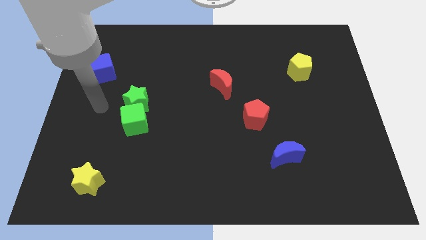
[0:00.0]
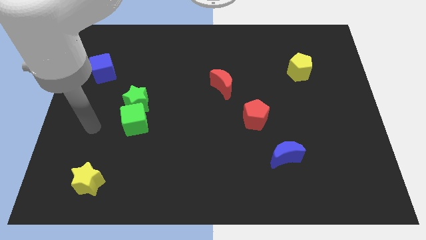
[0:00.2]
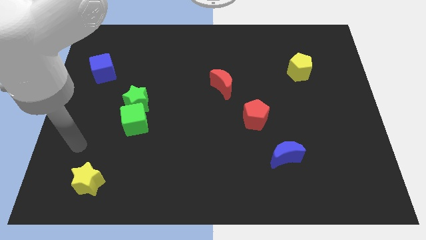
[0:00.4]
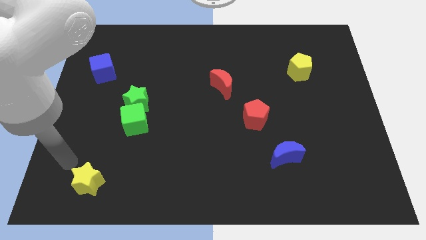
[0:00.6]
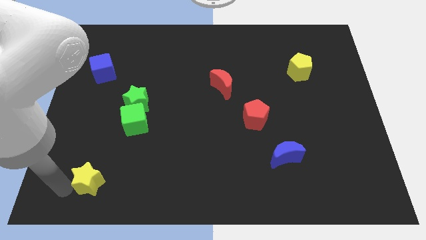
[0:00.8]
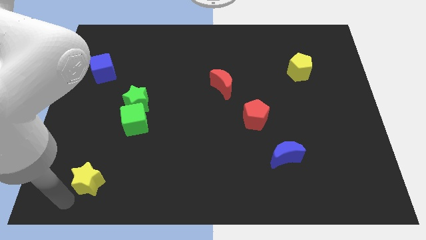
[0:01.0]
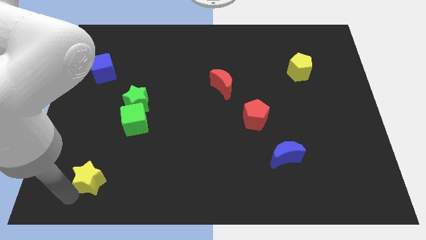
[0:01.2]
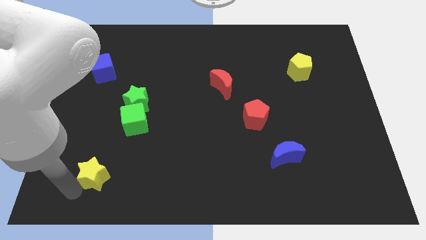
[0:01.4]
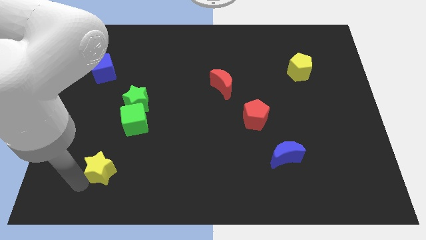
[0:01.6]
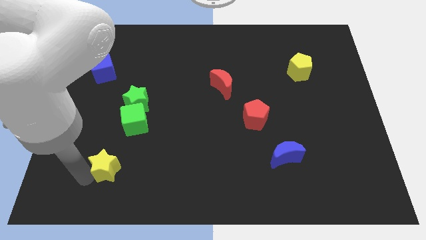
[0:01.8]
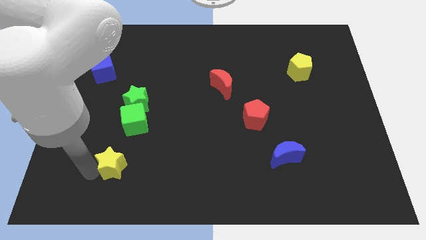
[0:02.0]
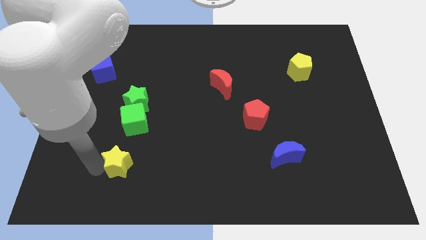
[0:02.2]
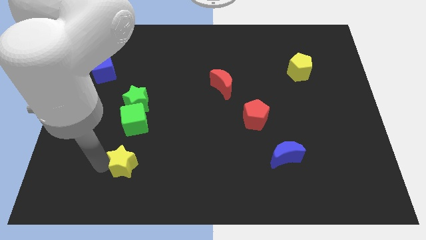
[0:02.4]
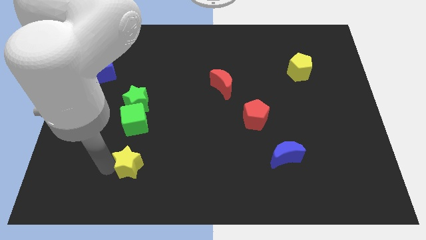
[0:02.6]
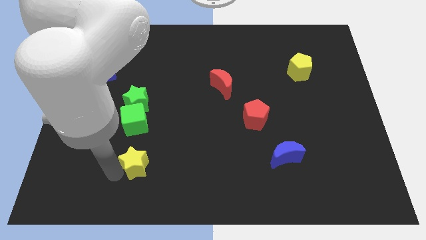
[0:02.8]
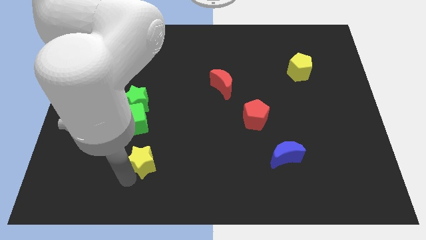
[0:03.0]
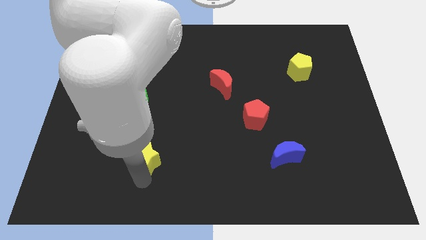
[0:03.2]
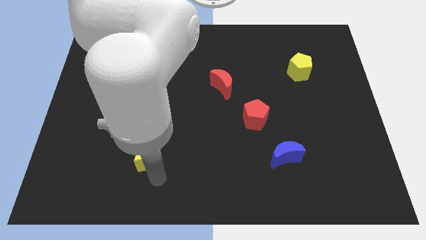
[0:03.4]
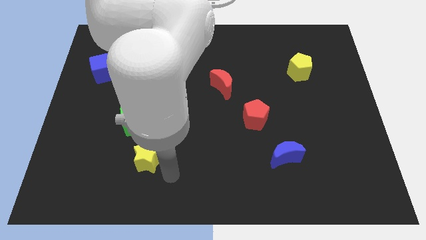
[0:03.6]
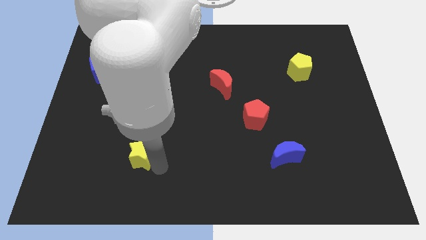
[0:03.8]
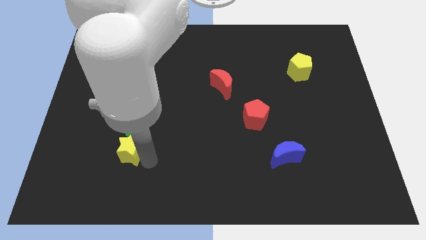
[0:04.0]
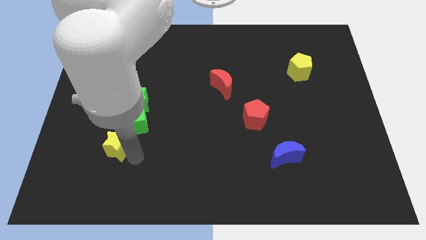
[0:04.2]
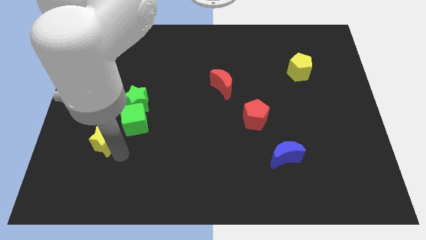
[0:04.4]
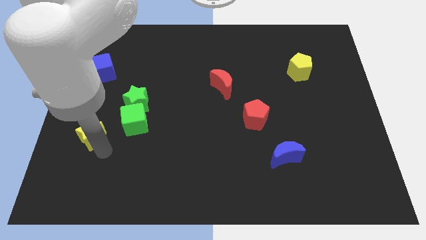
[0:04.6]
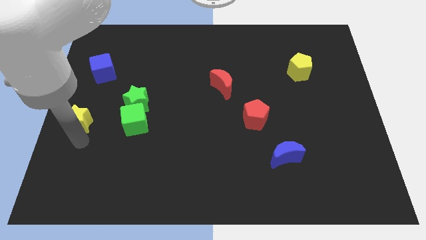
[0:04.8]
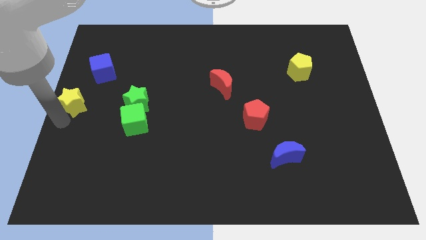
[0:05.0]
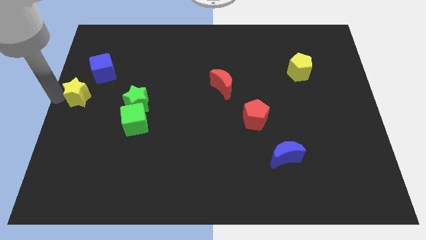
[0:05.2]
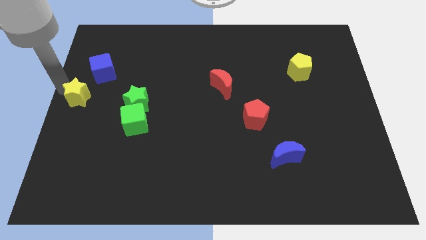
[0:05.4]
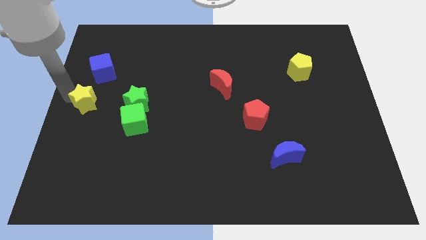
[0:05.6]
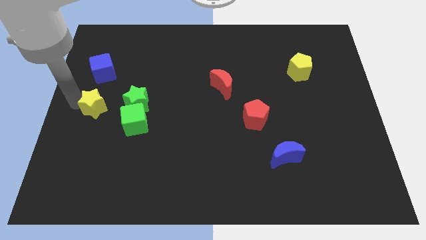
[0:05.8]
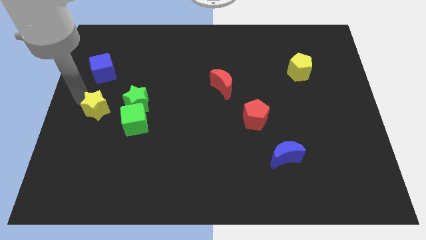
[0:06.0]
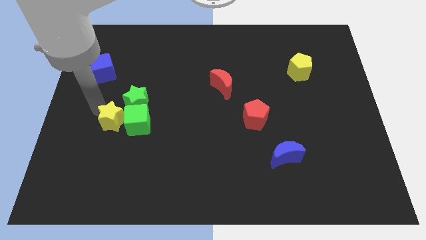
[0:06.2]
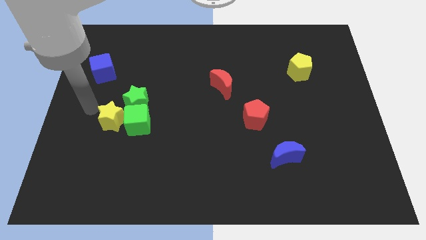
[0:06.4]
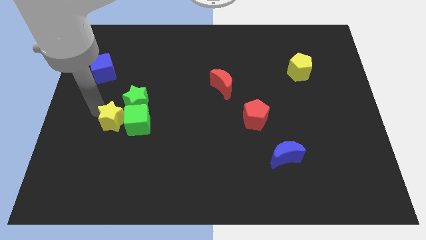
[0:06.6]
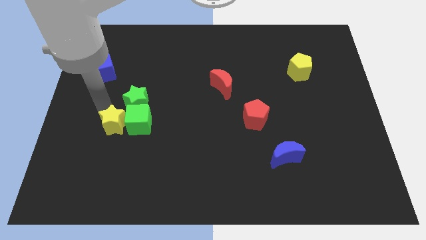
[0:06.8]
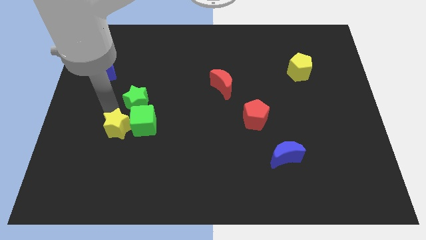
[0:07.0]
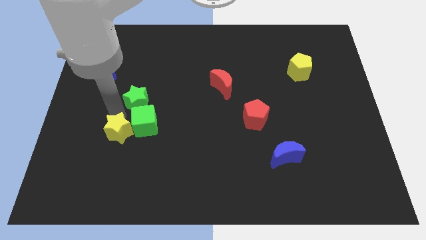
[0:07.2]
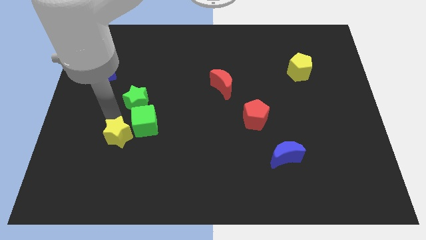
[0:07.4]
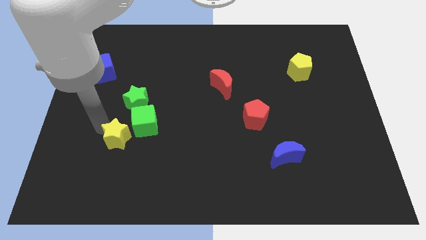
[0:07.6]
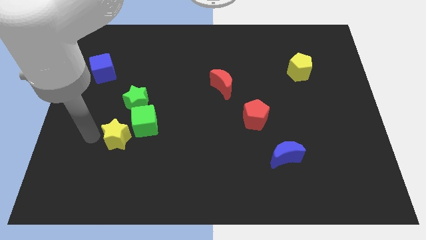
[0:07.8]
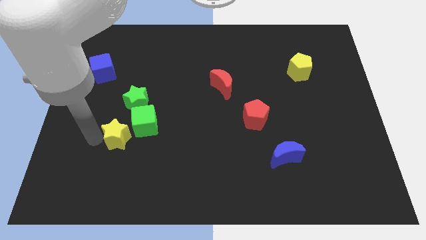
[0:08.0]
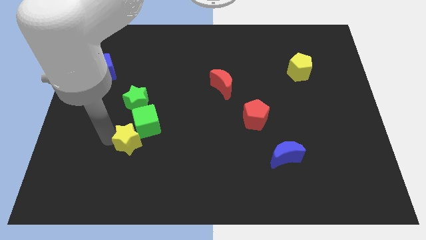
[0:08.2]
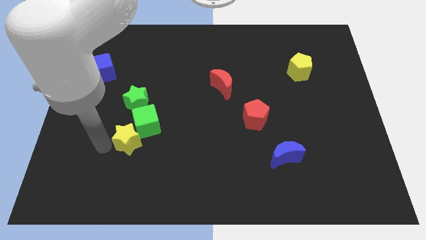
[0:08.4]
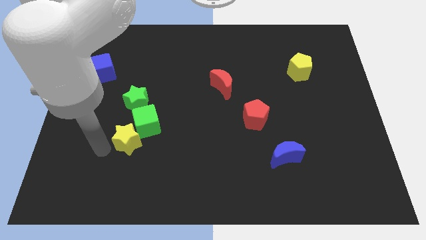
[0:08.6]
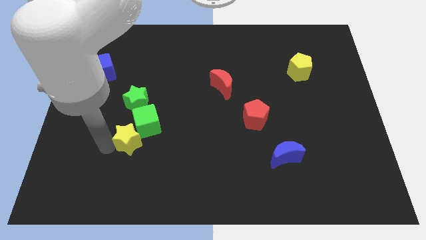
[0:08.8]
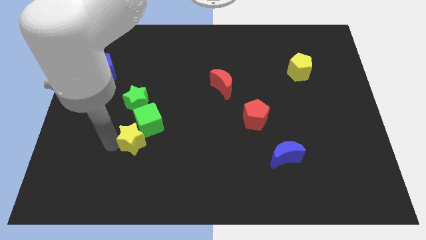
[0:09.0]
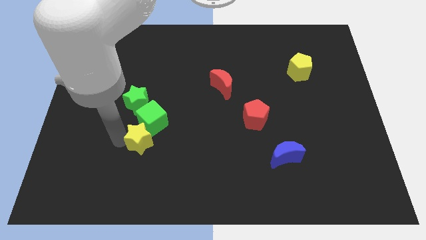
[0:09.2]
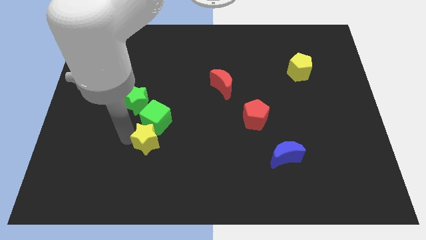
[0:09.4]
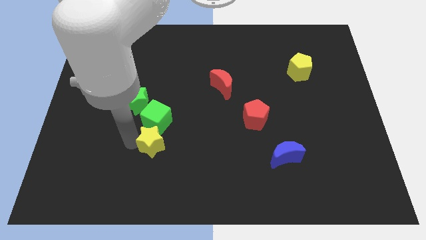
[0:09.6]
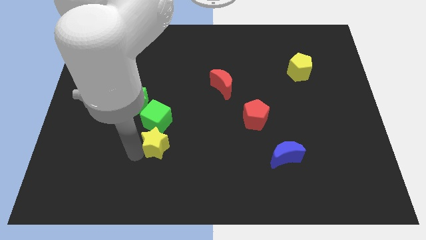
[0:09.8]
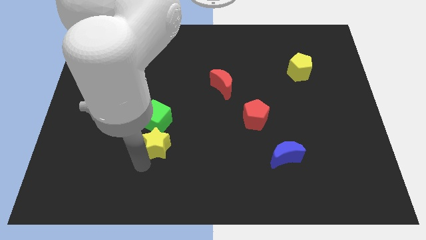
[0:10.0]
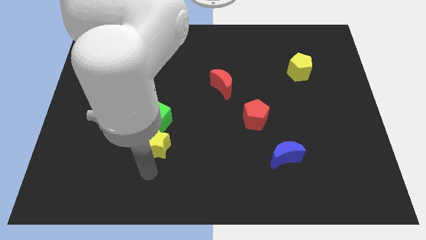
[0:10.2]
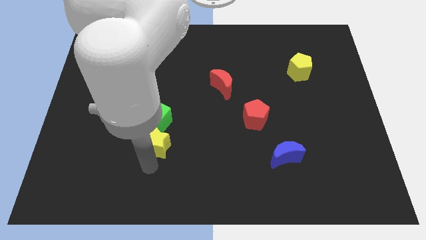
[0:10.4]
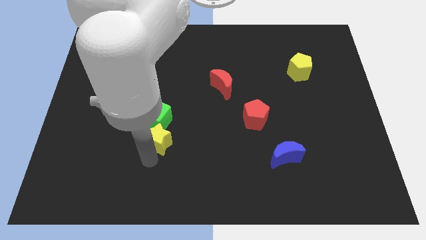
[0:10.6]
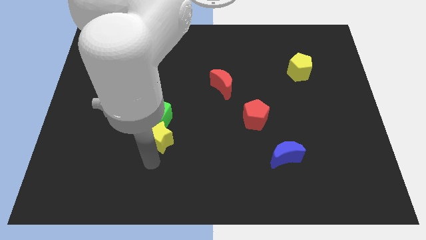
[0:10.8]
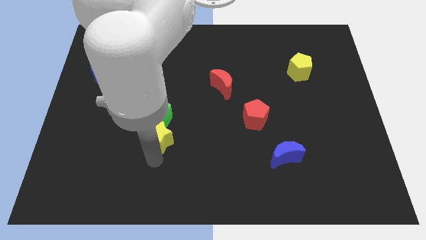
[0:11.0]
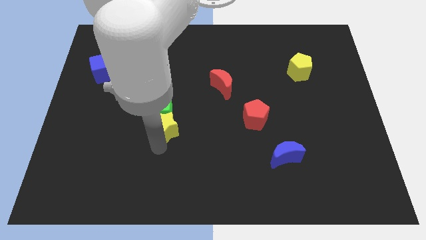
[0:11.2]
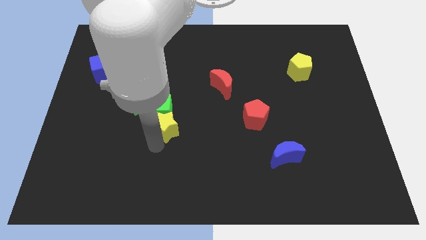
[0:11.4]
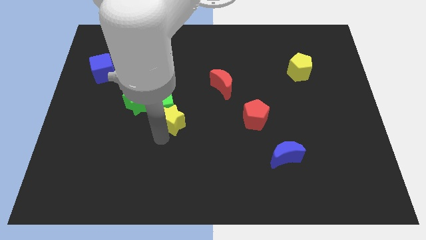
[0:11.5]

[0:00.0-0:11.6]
push the yellow star diagonally upwards and to the right

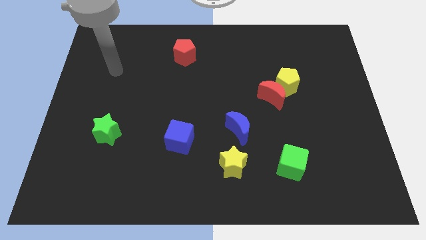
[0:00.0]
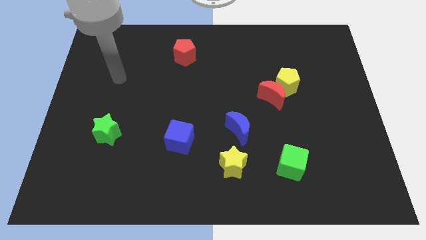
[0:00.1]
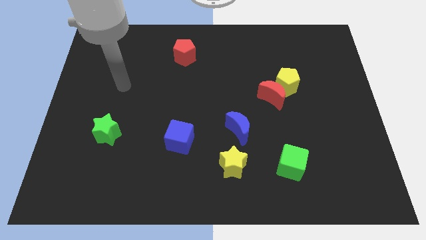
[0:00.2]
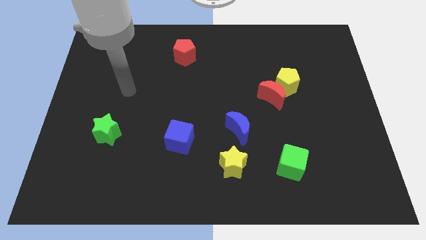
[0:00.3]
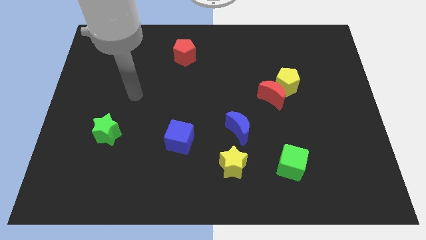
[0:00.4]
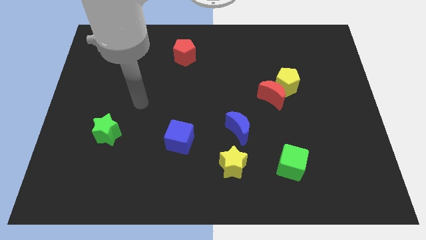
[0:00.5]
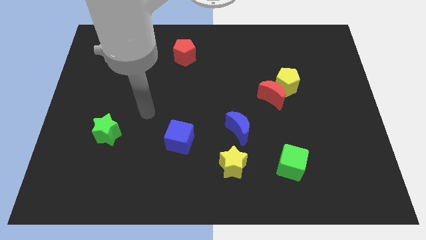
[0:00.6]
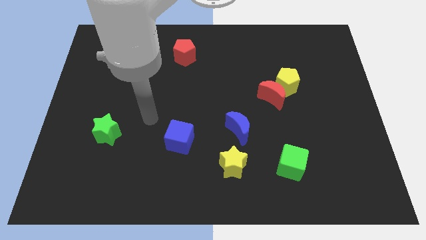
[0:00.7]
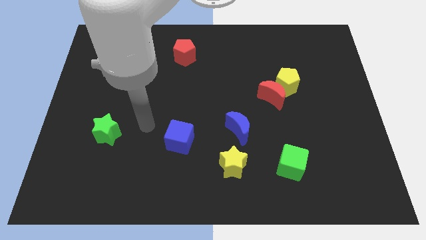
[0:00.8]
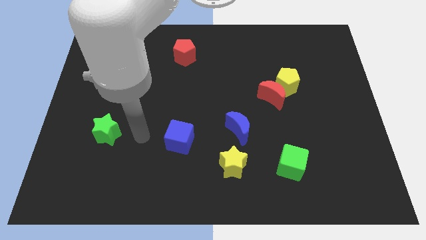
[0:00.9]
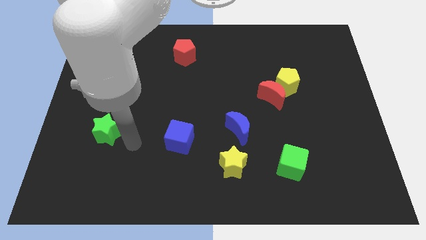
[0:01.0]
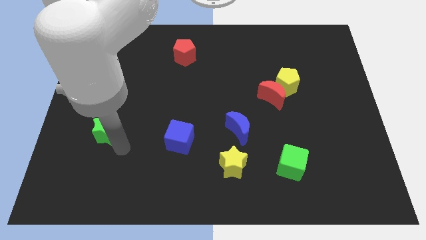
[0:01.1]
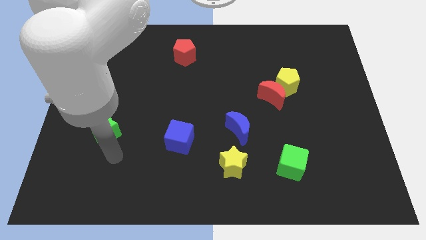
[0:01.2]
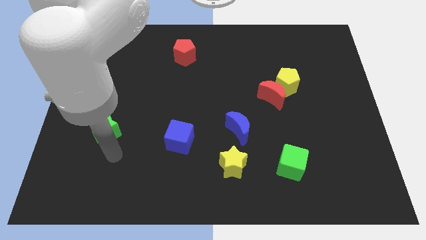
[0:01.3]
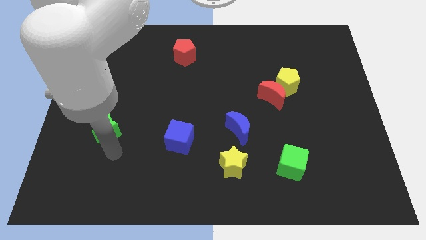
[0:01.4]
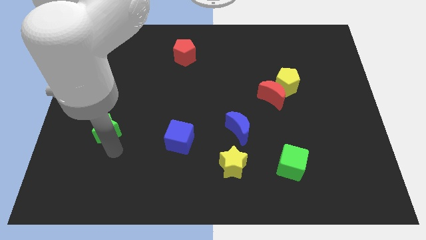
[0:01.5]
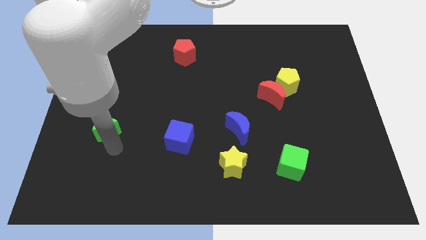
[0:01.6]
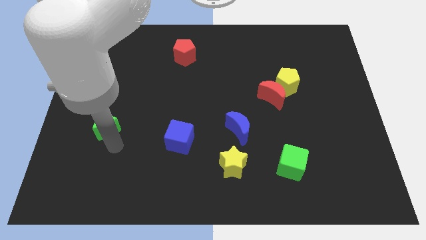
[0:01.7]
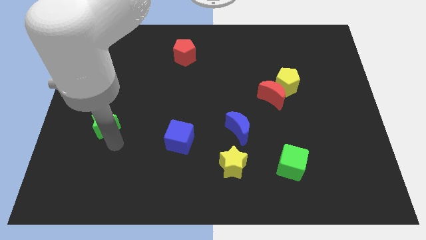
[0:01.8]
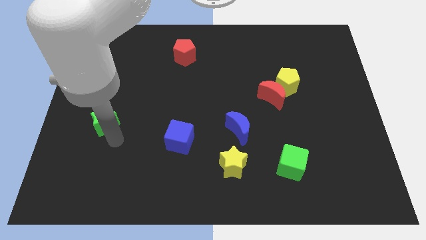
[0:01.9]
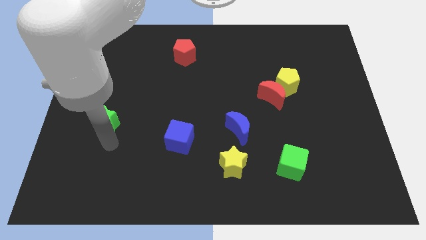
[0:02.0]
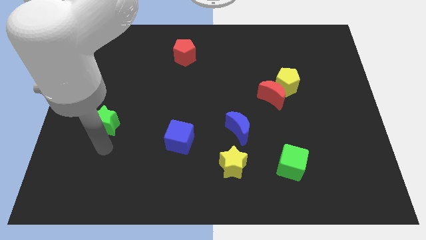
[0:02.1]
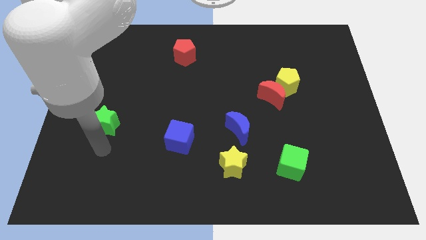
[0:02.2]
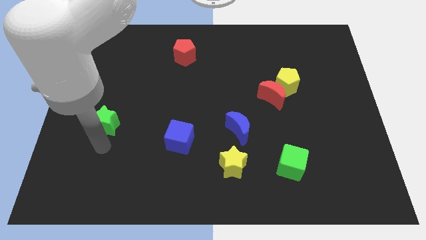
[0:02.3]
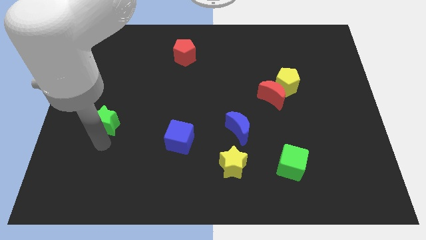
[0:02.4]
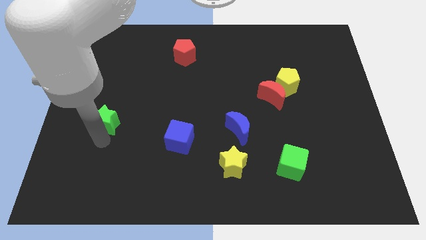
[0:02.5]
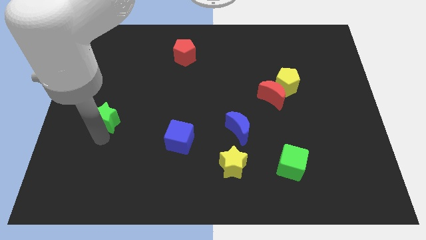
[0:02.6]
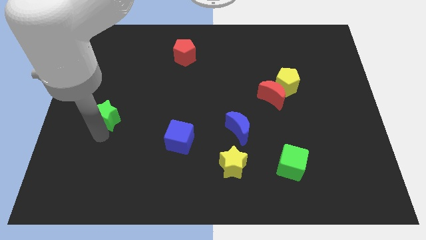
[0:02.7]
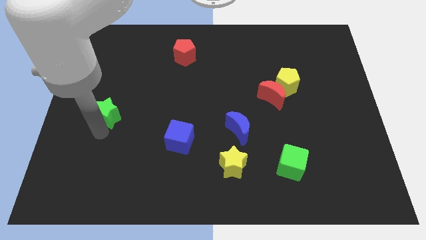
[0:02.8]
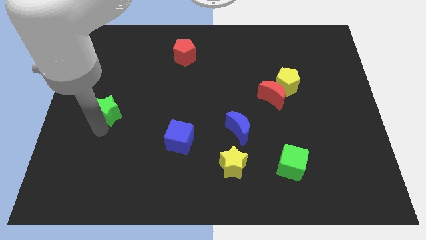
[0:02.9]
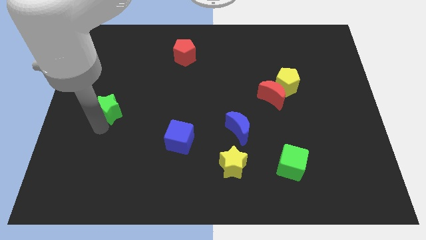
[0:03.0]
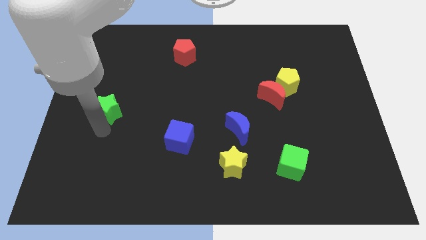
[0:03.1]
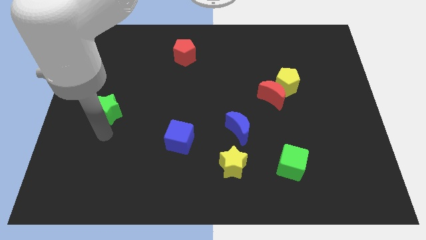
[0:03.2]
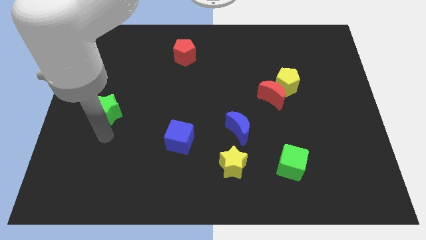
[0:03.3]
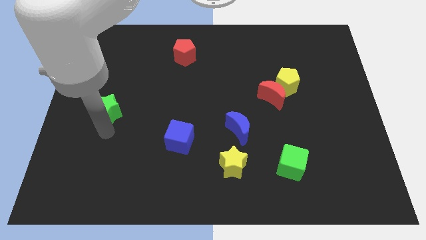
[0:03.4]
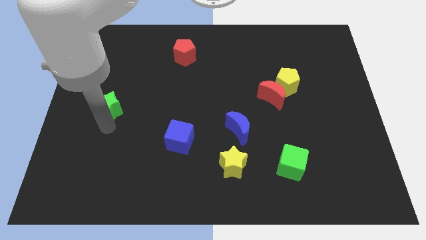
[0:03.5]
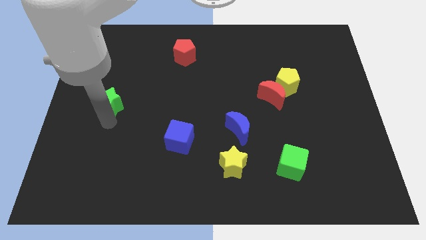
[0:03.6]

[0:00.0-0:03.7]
move the green star a little bit up
